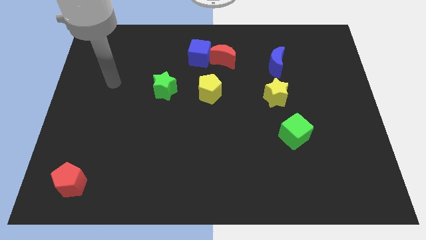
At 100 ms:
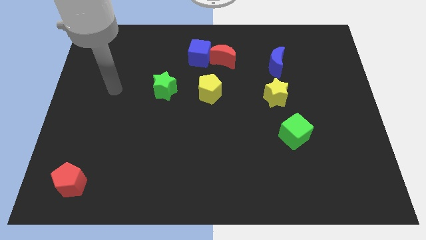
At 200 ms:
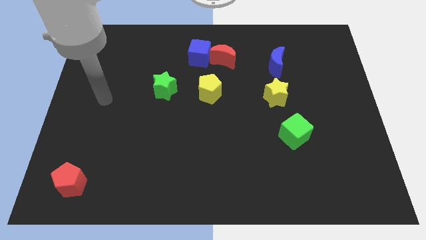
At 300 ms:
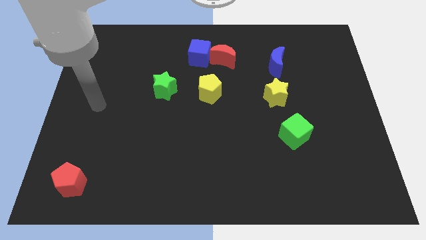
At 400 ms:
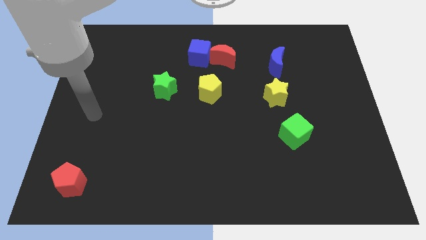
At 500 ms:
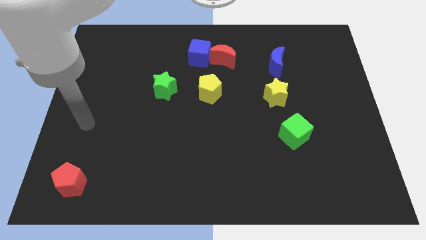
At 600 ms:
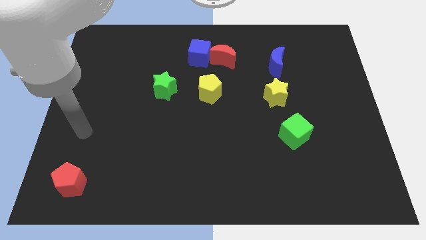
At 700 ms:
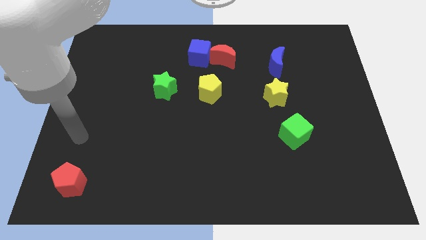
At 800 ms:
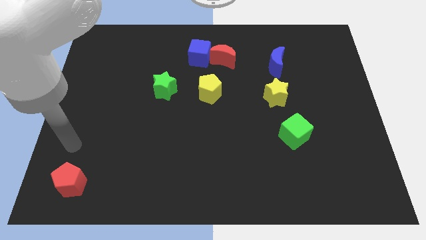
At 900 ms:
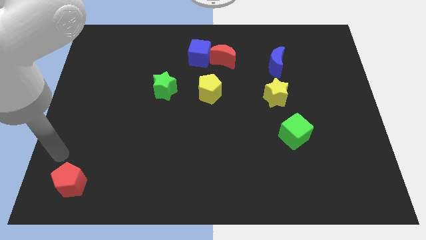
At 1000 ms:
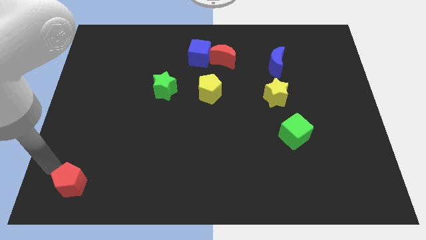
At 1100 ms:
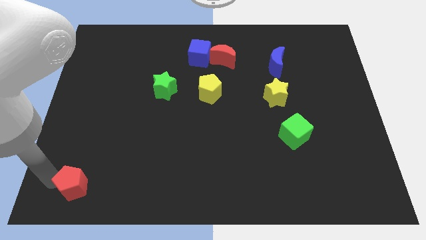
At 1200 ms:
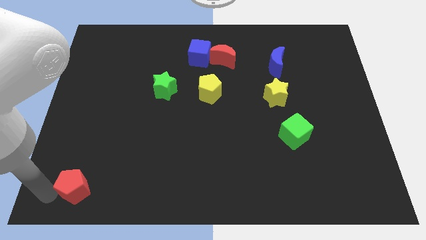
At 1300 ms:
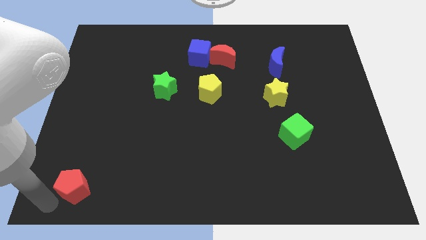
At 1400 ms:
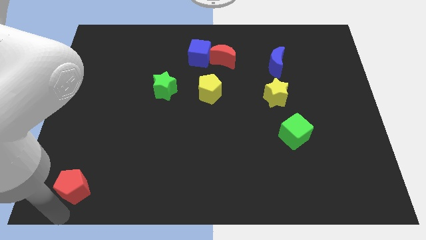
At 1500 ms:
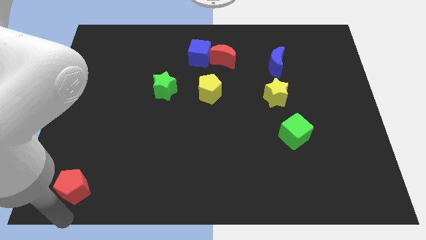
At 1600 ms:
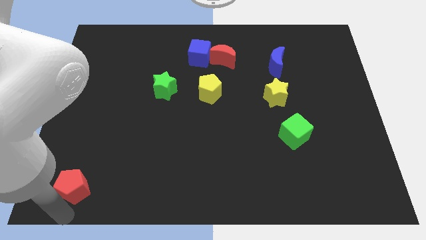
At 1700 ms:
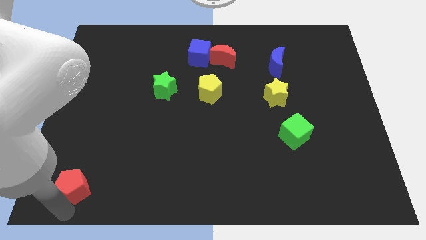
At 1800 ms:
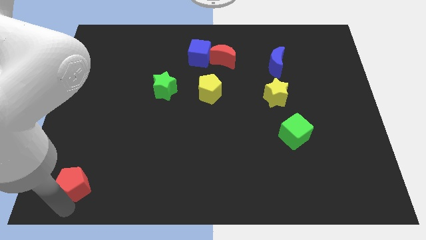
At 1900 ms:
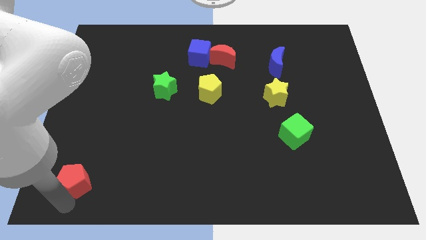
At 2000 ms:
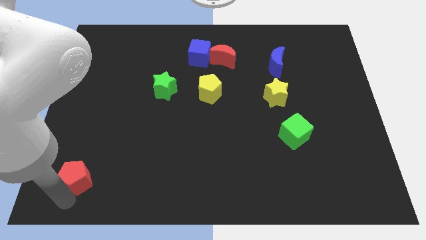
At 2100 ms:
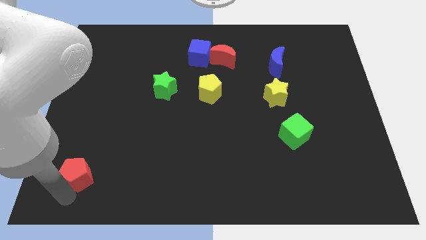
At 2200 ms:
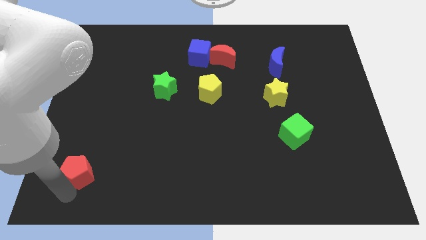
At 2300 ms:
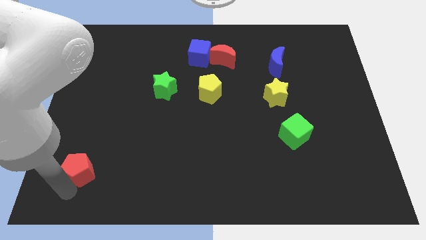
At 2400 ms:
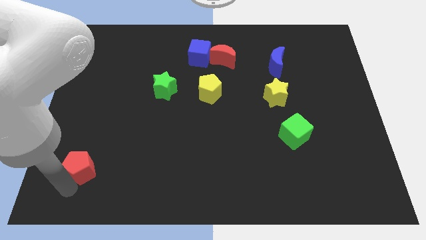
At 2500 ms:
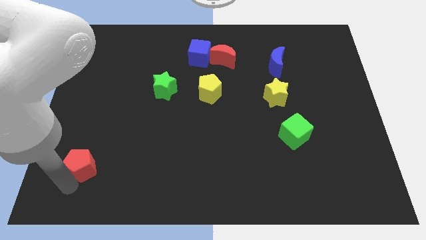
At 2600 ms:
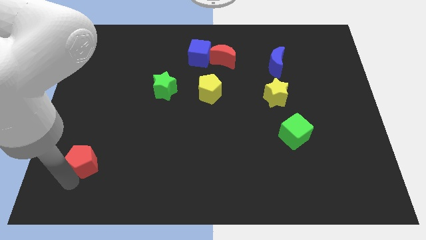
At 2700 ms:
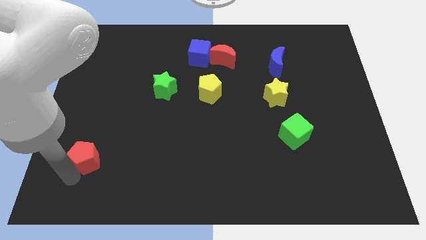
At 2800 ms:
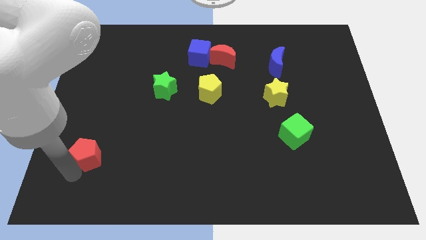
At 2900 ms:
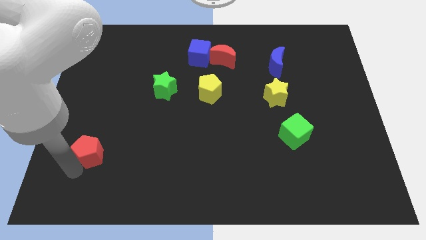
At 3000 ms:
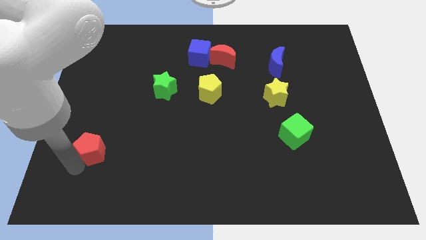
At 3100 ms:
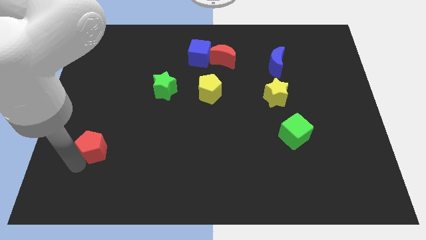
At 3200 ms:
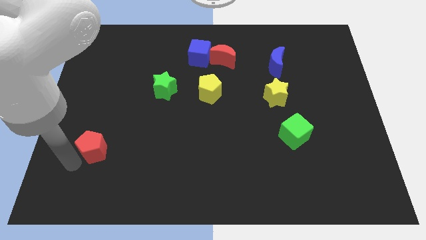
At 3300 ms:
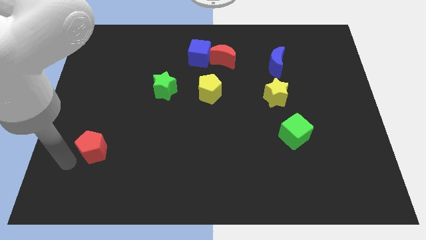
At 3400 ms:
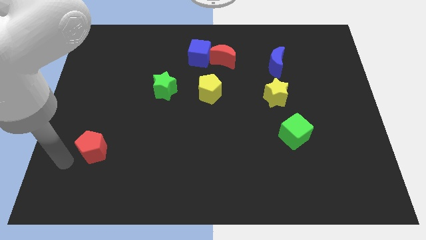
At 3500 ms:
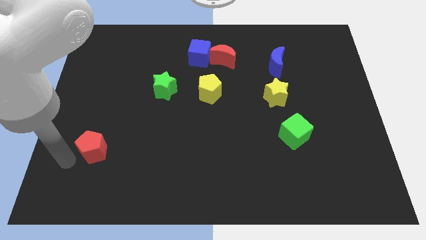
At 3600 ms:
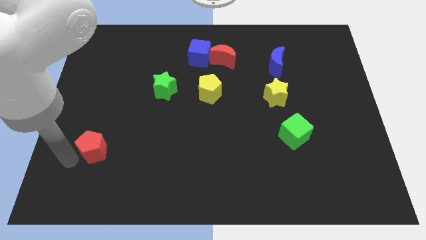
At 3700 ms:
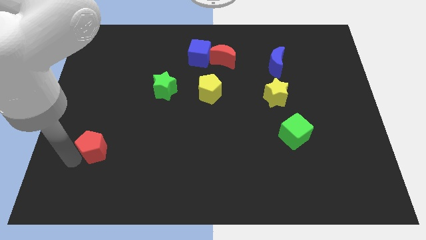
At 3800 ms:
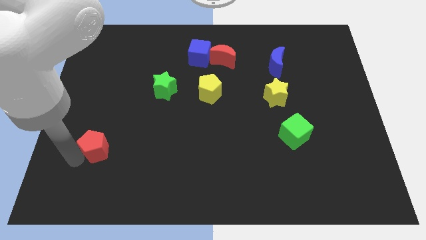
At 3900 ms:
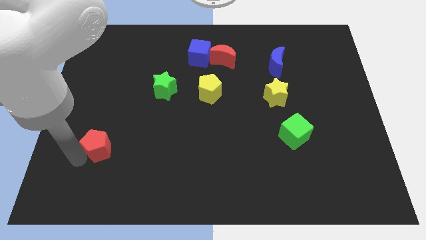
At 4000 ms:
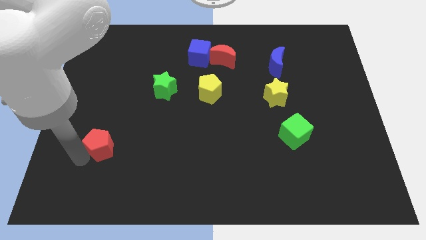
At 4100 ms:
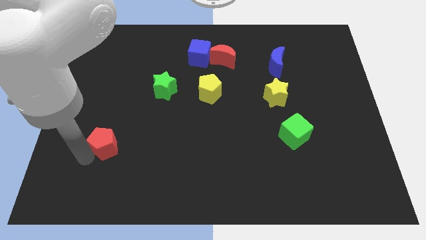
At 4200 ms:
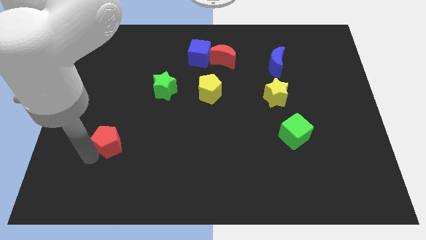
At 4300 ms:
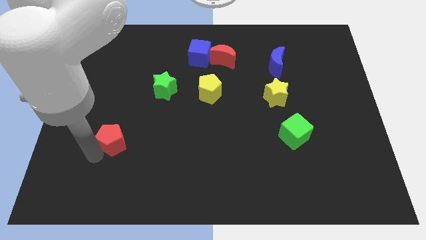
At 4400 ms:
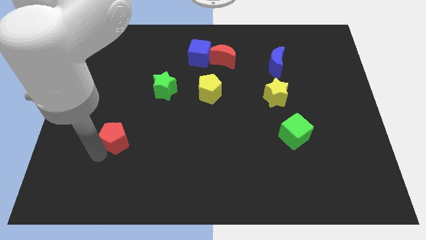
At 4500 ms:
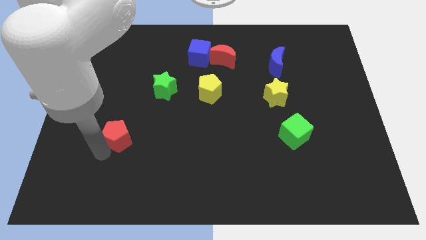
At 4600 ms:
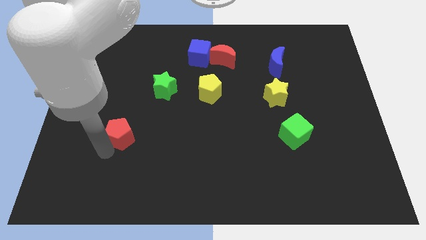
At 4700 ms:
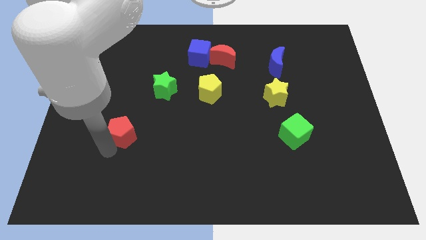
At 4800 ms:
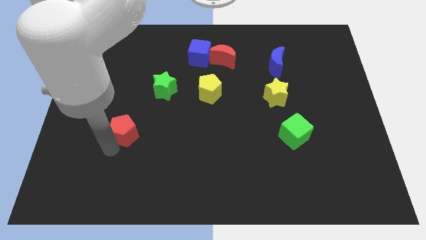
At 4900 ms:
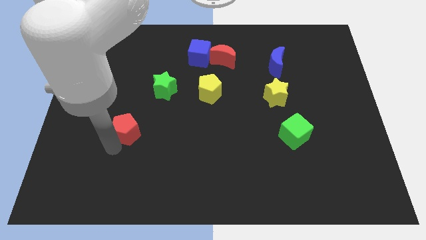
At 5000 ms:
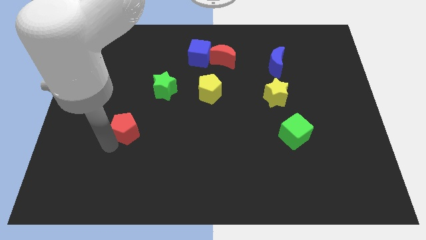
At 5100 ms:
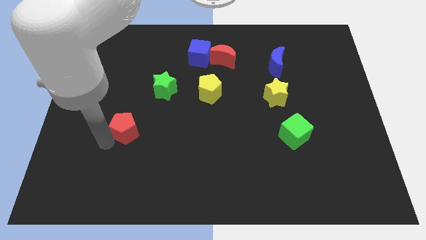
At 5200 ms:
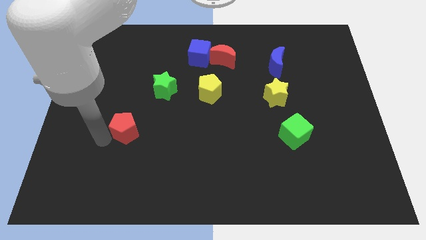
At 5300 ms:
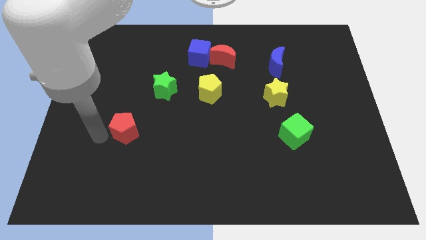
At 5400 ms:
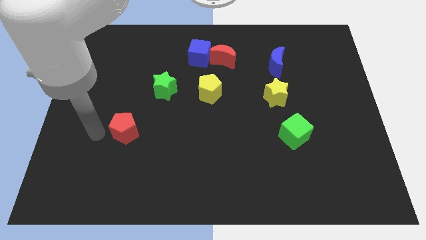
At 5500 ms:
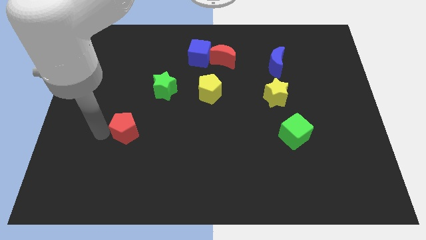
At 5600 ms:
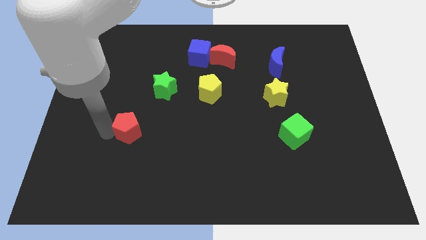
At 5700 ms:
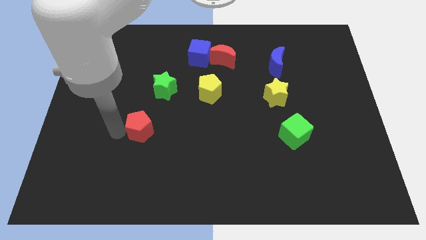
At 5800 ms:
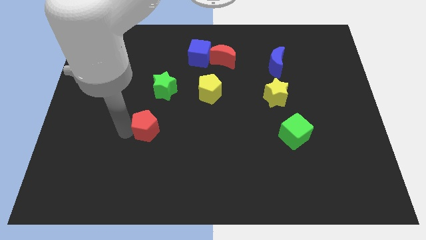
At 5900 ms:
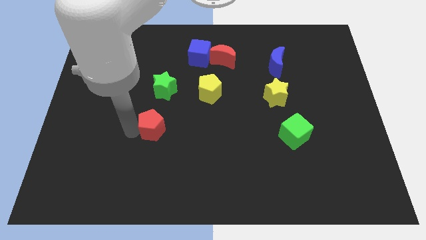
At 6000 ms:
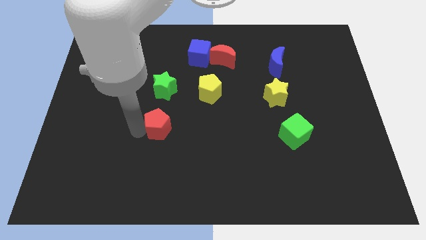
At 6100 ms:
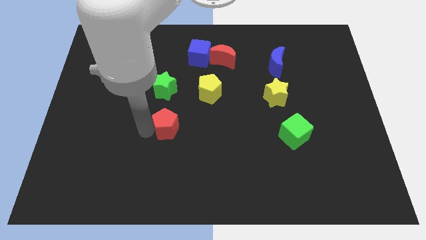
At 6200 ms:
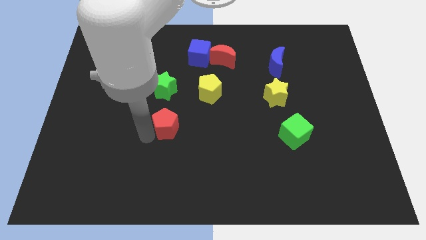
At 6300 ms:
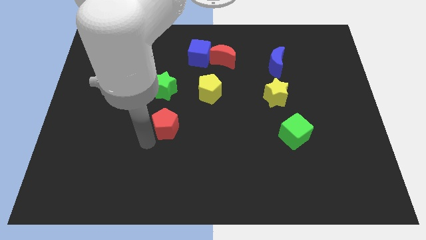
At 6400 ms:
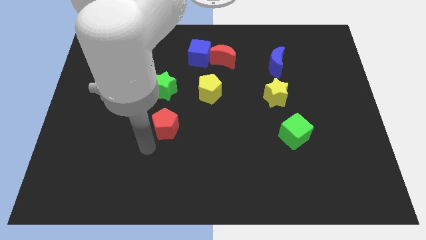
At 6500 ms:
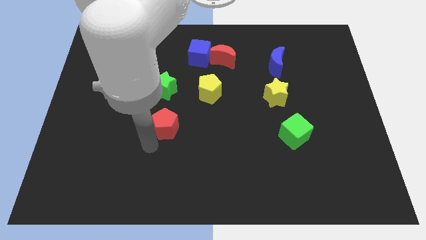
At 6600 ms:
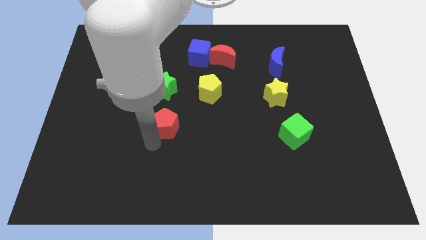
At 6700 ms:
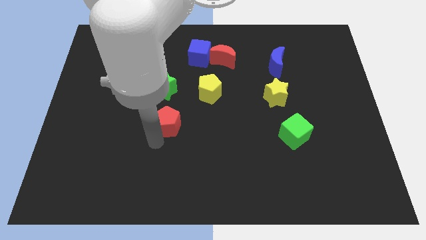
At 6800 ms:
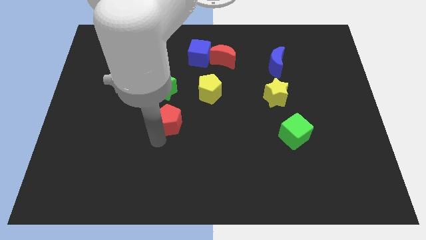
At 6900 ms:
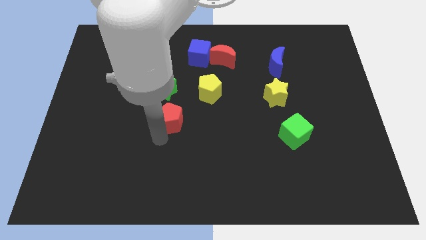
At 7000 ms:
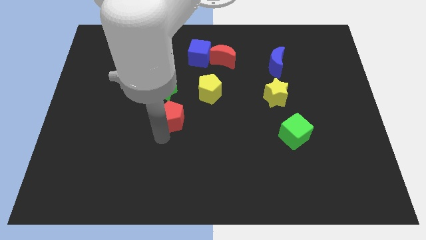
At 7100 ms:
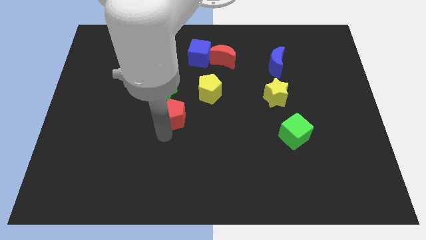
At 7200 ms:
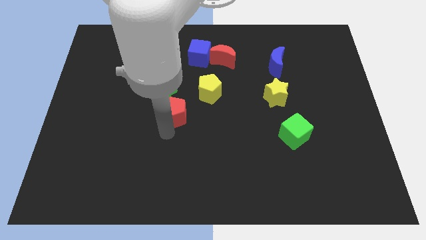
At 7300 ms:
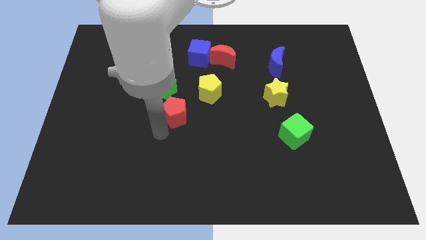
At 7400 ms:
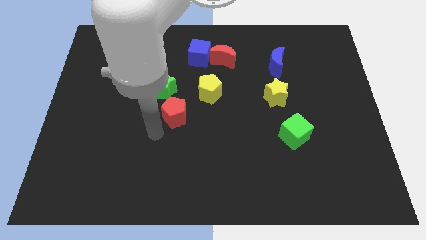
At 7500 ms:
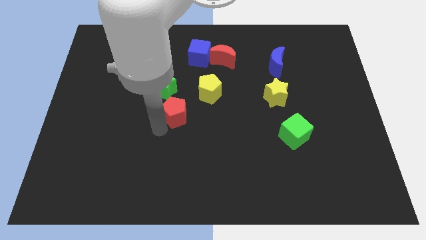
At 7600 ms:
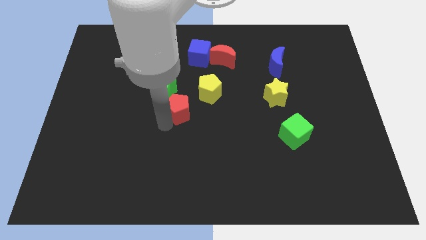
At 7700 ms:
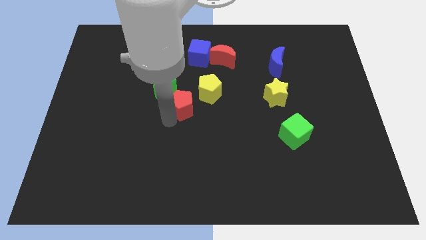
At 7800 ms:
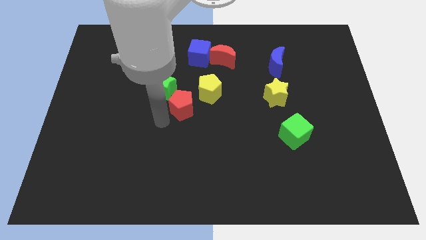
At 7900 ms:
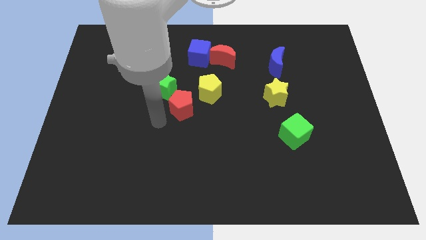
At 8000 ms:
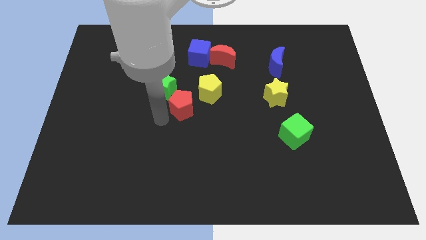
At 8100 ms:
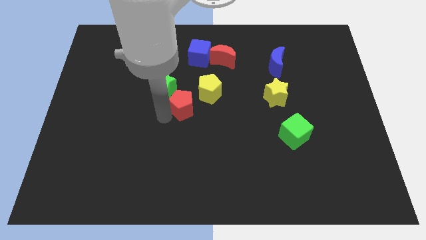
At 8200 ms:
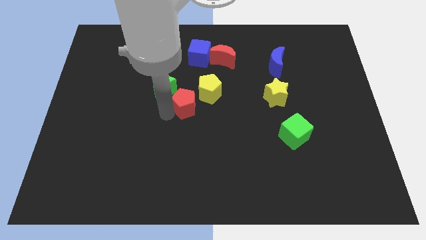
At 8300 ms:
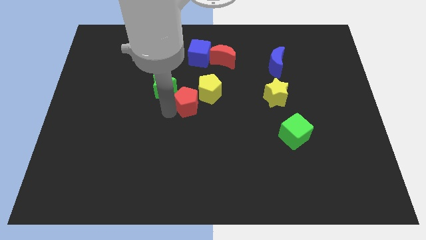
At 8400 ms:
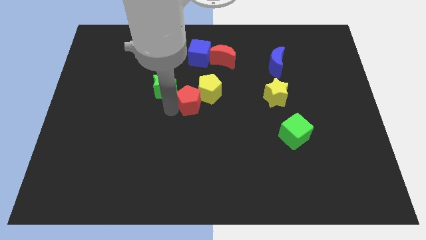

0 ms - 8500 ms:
push the red pentagon to the yellow pentagon
